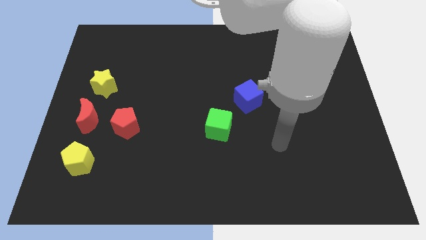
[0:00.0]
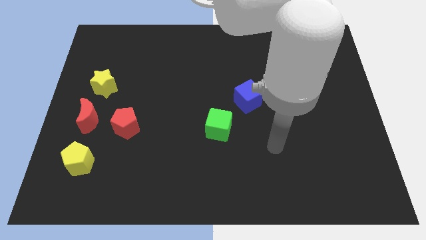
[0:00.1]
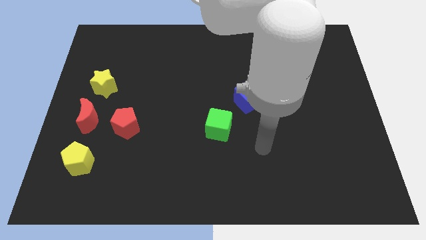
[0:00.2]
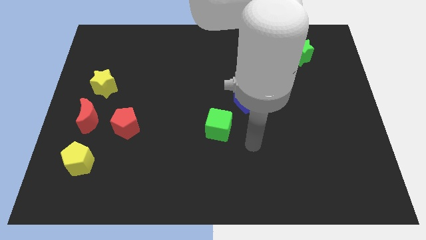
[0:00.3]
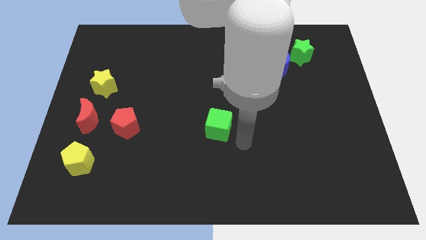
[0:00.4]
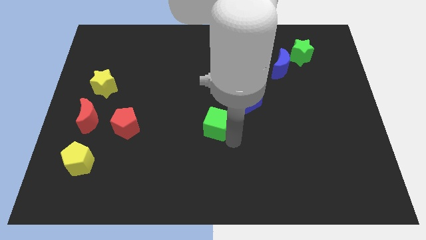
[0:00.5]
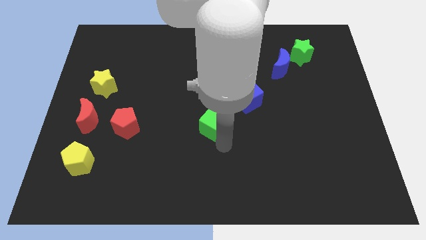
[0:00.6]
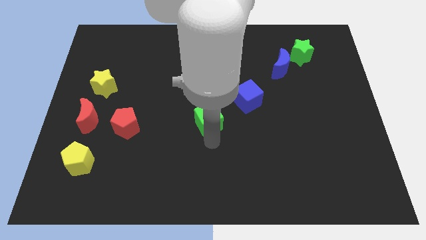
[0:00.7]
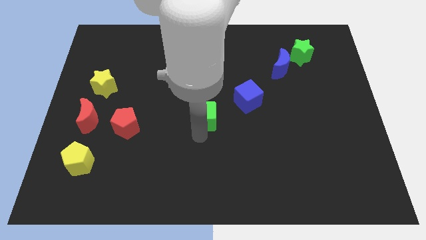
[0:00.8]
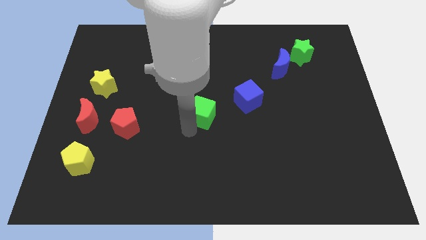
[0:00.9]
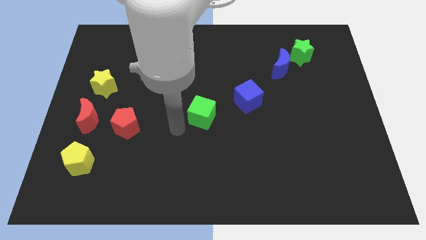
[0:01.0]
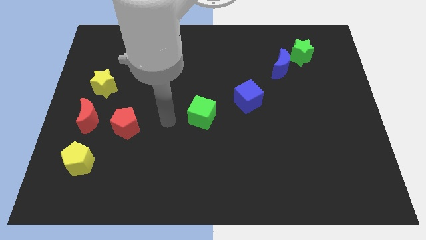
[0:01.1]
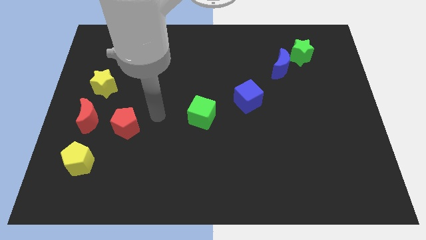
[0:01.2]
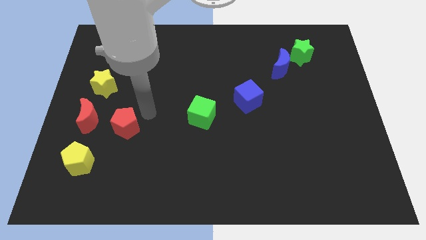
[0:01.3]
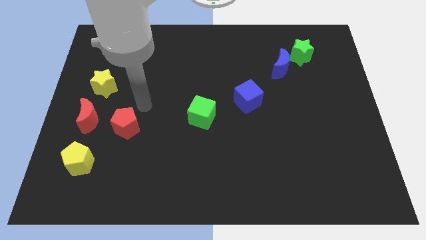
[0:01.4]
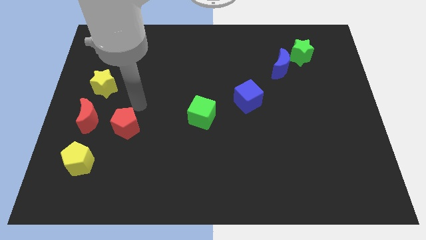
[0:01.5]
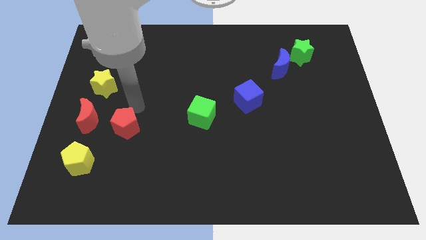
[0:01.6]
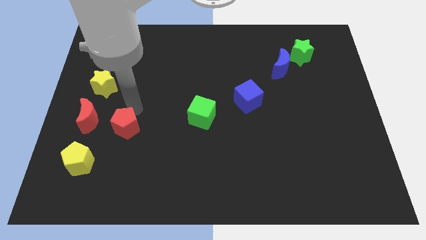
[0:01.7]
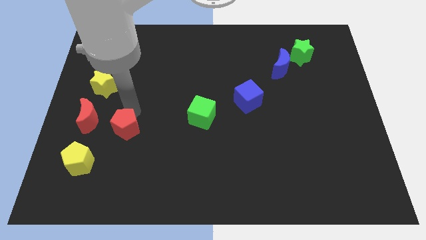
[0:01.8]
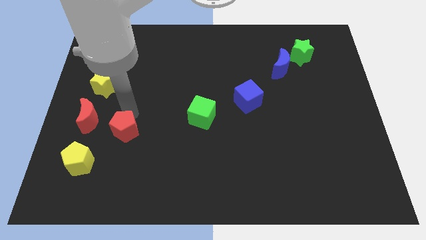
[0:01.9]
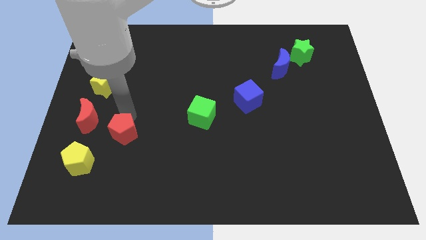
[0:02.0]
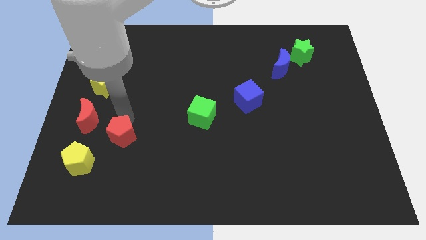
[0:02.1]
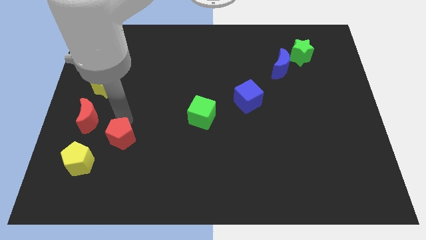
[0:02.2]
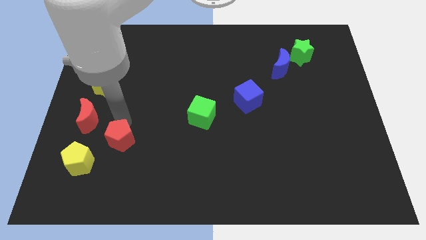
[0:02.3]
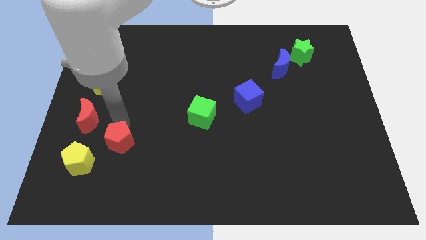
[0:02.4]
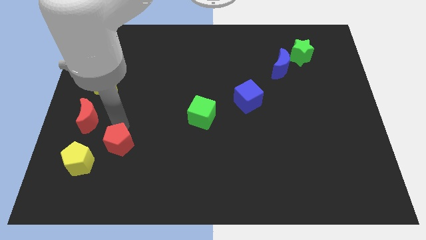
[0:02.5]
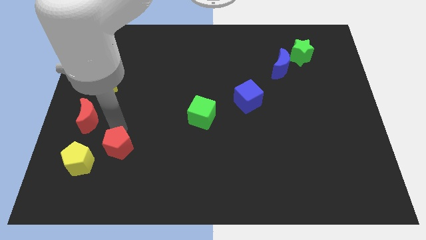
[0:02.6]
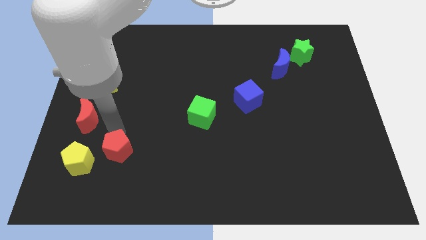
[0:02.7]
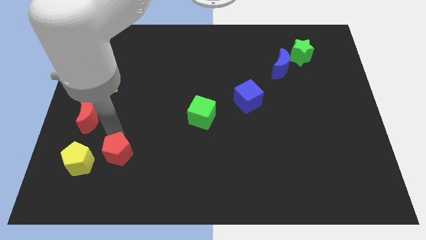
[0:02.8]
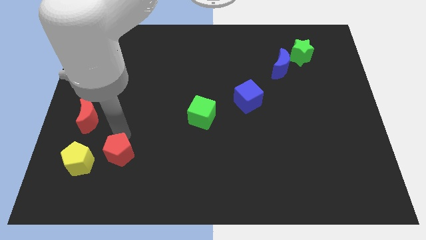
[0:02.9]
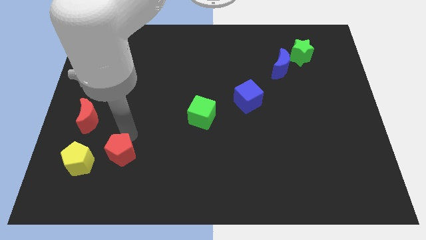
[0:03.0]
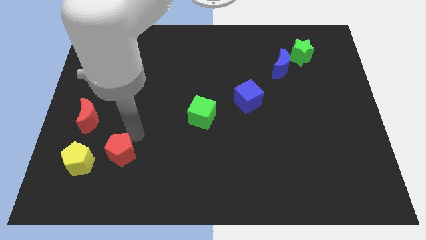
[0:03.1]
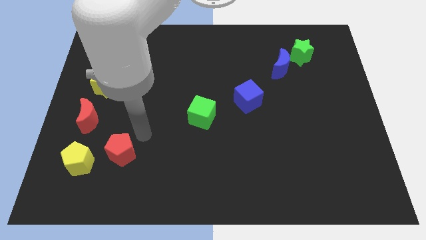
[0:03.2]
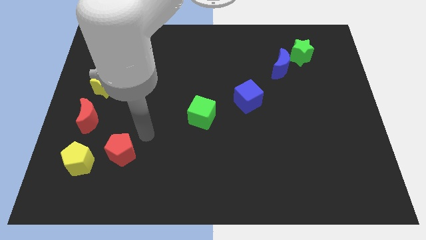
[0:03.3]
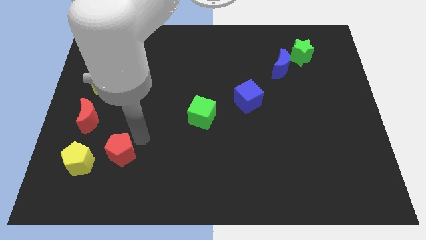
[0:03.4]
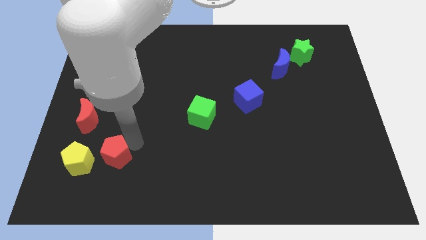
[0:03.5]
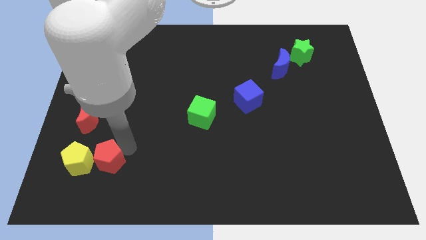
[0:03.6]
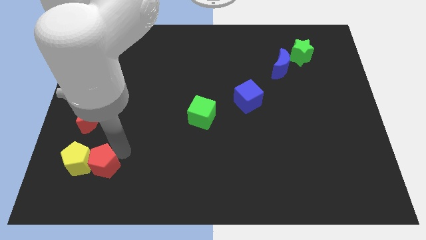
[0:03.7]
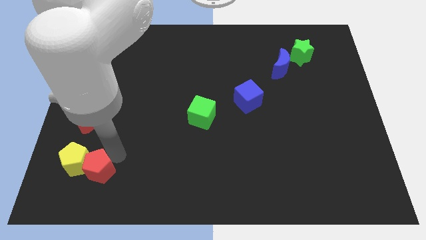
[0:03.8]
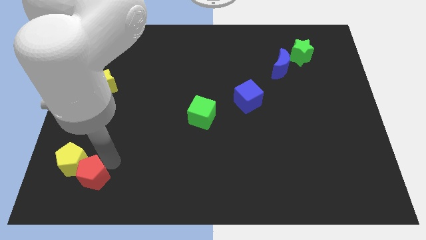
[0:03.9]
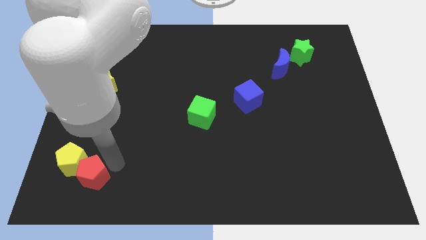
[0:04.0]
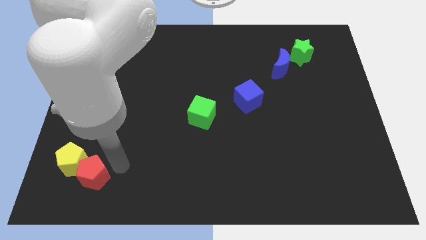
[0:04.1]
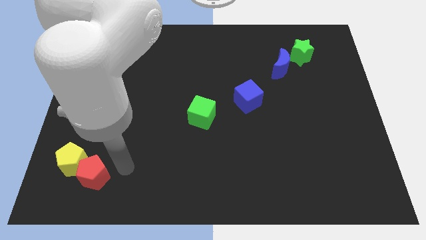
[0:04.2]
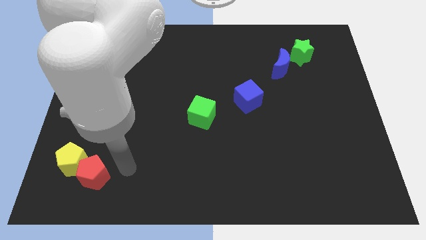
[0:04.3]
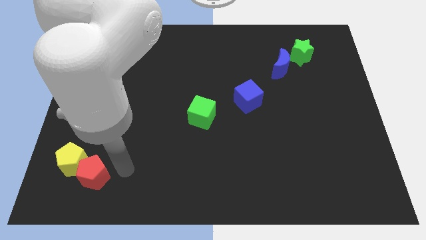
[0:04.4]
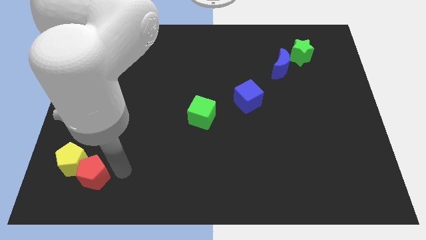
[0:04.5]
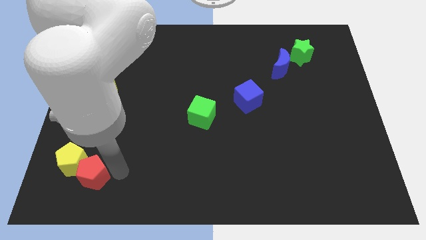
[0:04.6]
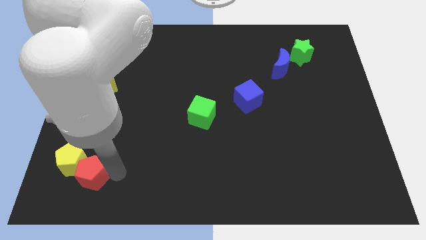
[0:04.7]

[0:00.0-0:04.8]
put the red pentagon below the red moon

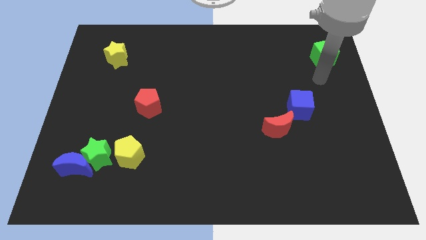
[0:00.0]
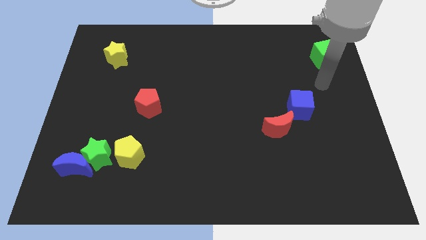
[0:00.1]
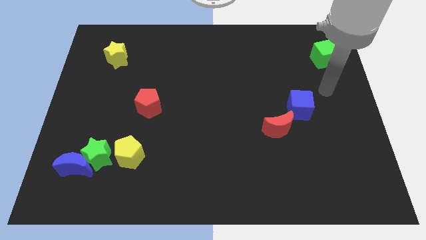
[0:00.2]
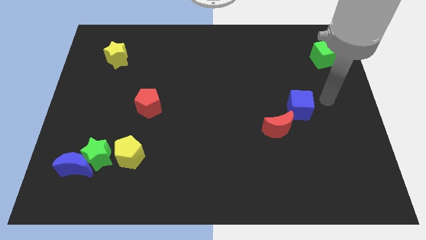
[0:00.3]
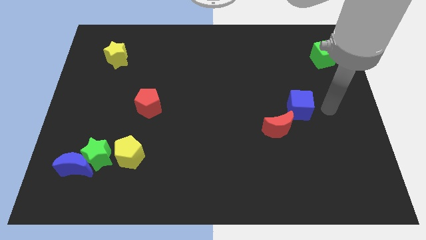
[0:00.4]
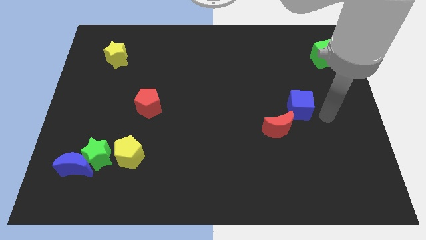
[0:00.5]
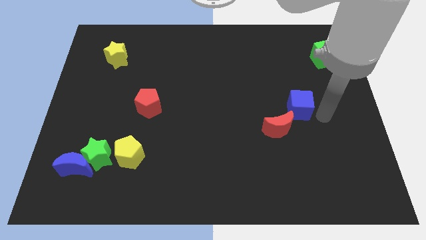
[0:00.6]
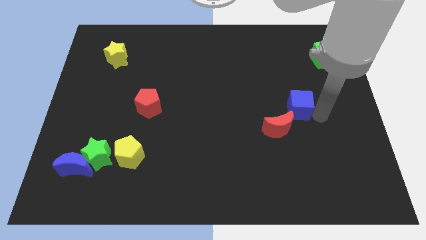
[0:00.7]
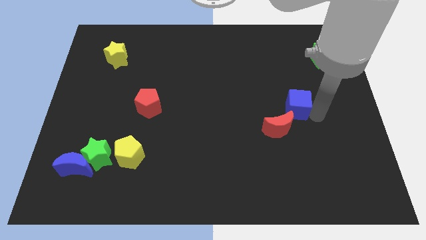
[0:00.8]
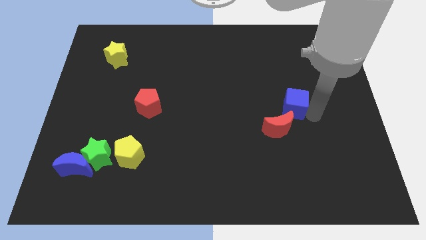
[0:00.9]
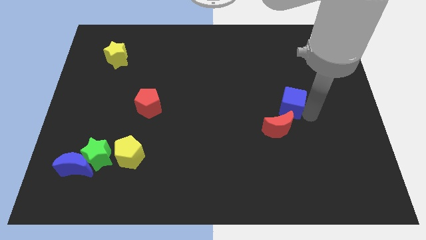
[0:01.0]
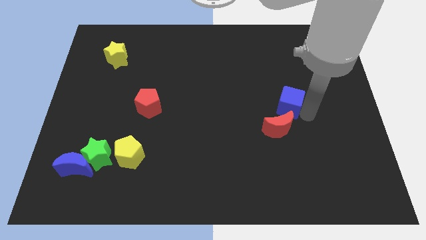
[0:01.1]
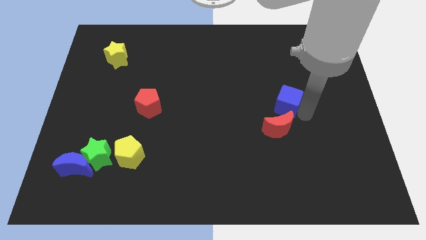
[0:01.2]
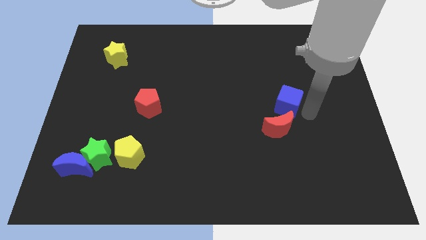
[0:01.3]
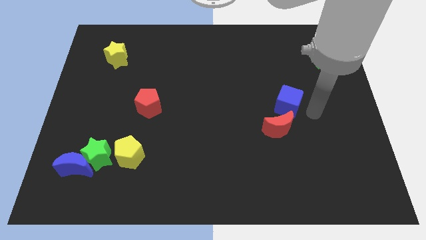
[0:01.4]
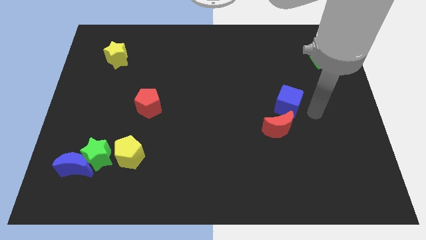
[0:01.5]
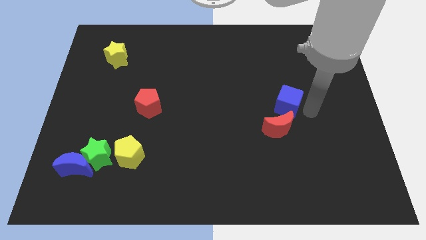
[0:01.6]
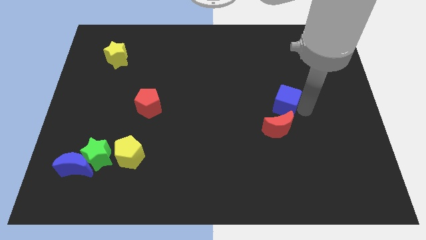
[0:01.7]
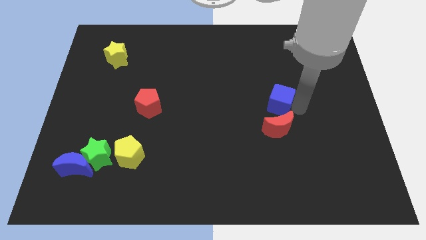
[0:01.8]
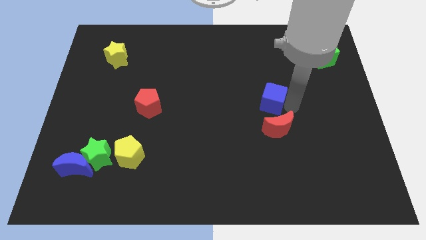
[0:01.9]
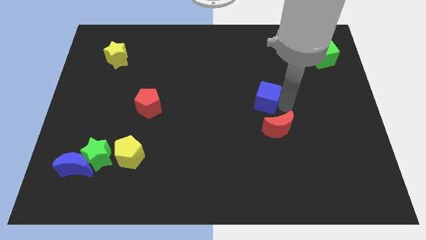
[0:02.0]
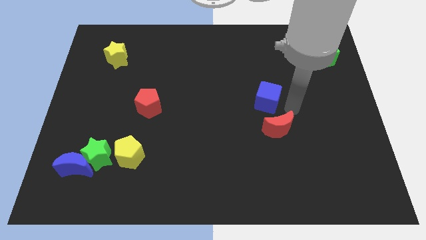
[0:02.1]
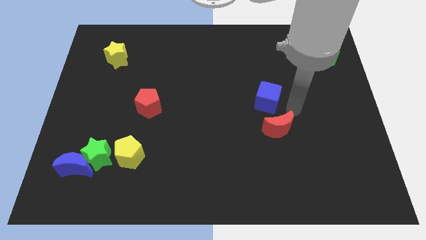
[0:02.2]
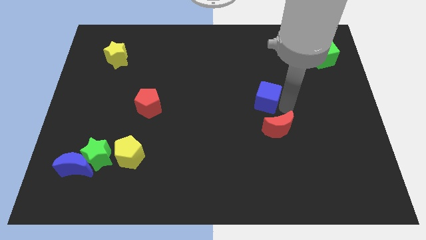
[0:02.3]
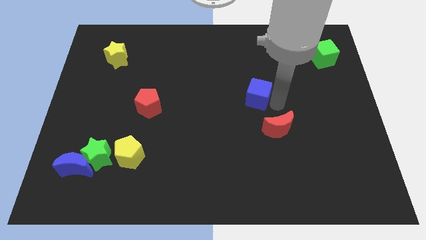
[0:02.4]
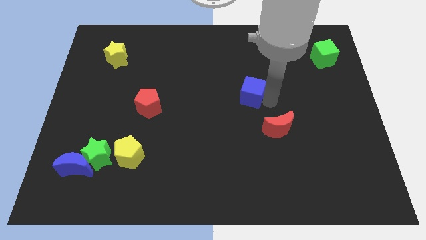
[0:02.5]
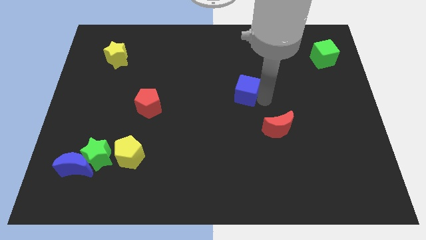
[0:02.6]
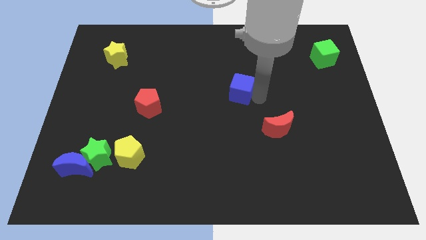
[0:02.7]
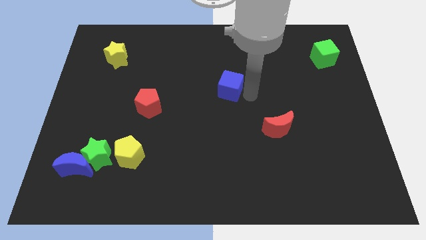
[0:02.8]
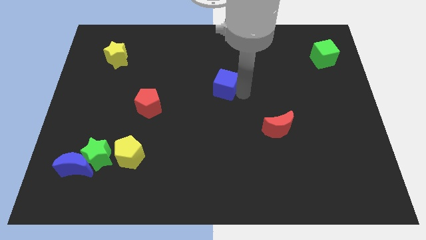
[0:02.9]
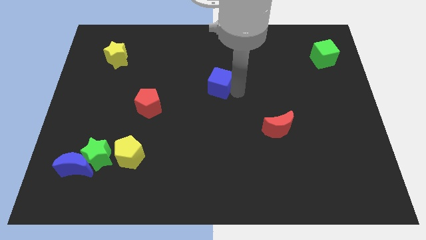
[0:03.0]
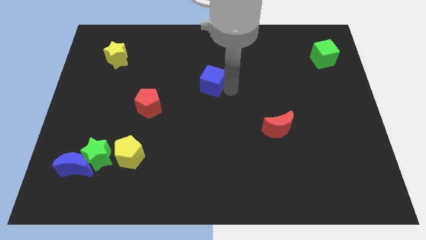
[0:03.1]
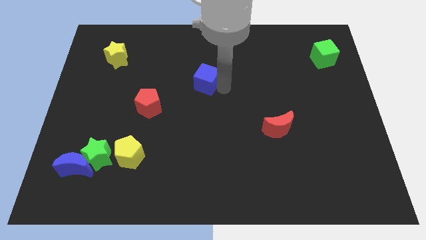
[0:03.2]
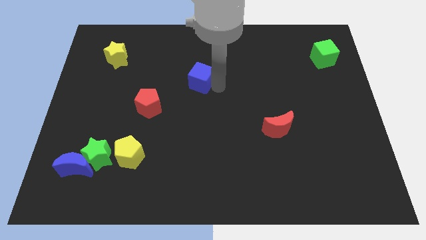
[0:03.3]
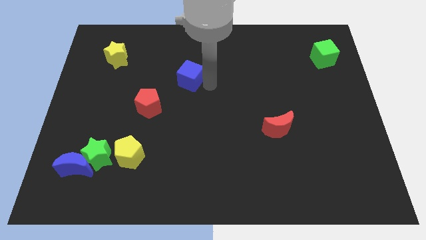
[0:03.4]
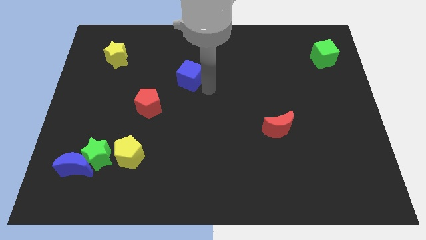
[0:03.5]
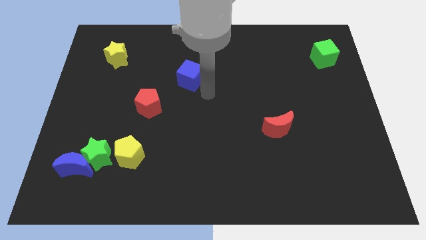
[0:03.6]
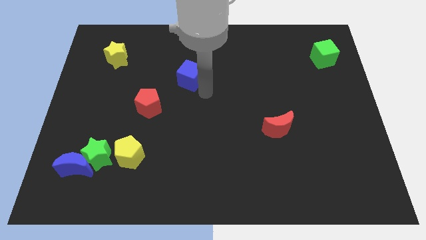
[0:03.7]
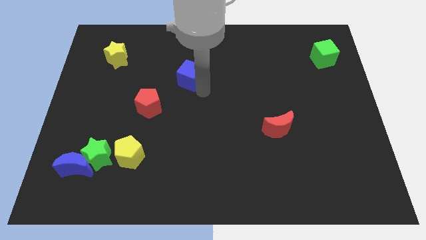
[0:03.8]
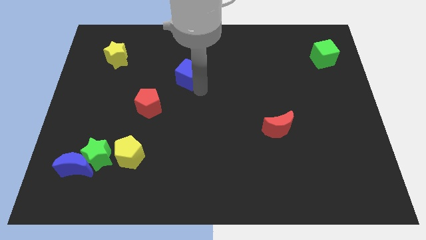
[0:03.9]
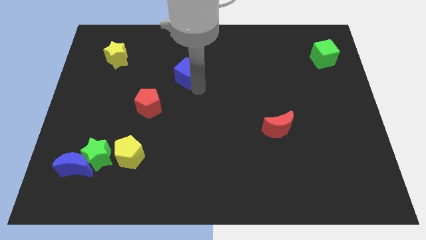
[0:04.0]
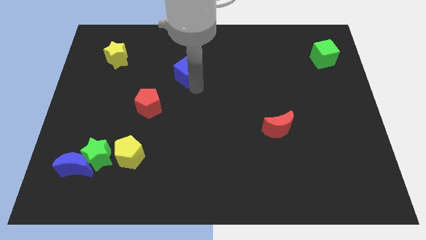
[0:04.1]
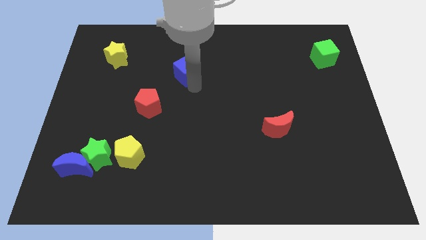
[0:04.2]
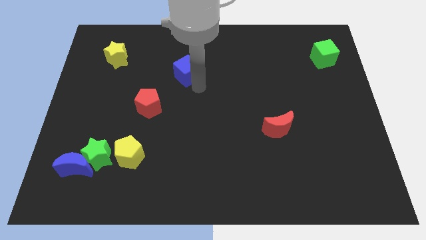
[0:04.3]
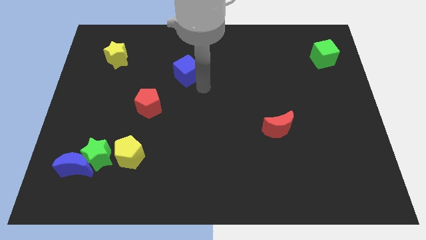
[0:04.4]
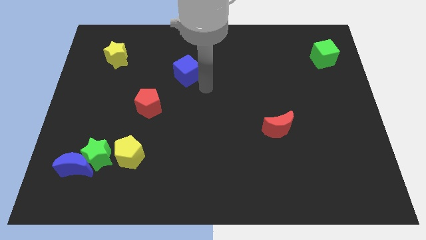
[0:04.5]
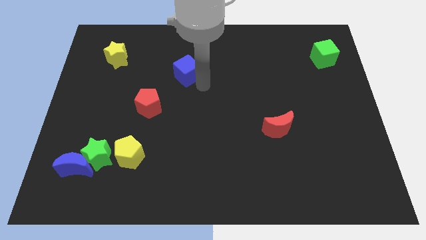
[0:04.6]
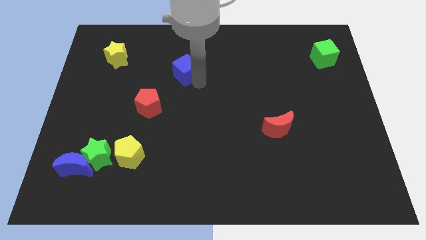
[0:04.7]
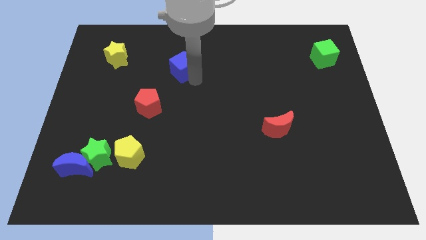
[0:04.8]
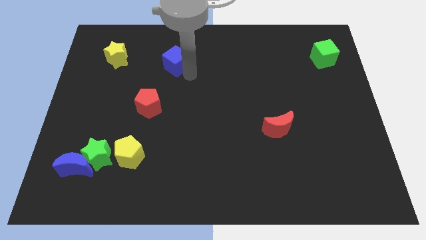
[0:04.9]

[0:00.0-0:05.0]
push the blue cube to the right side of the yellow star
